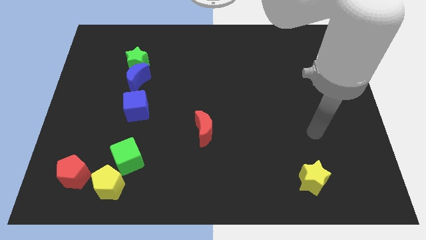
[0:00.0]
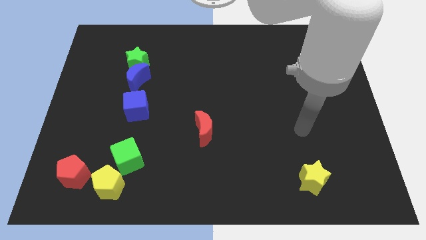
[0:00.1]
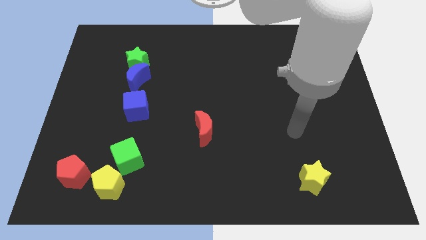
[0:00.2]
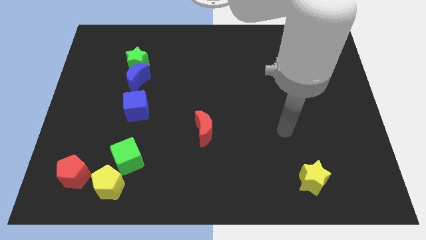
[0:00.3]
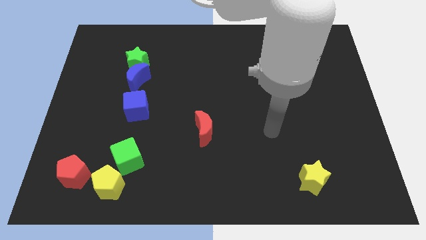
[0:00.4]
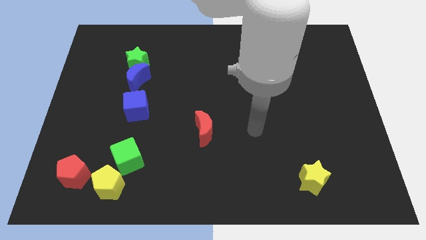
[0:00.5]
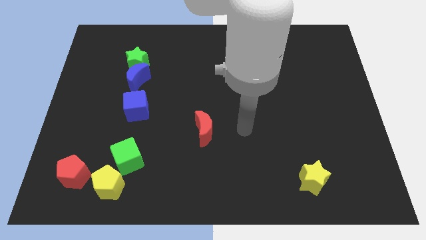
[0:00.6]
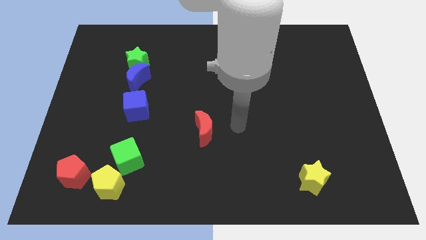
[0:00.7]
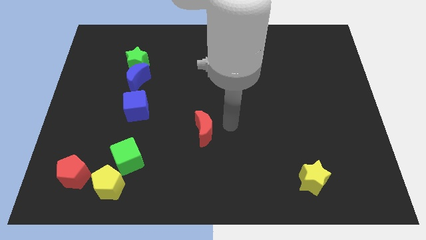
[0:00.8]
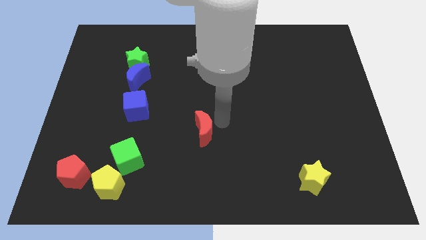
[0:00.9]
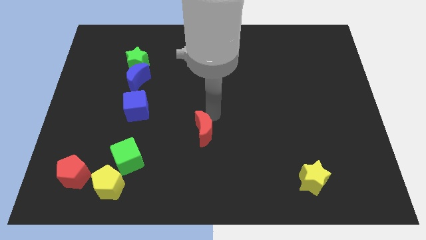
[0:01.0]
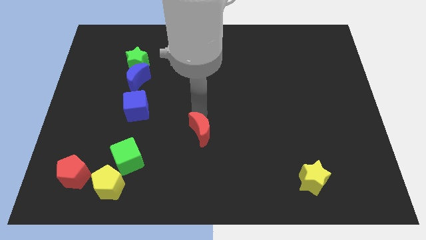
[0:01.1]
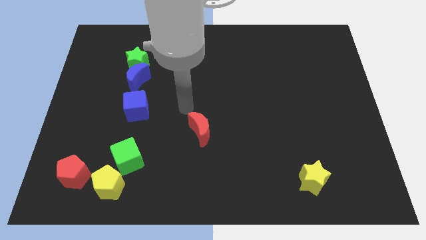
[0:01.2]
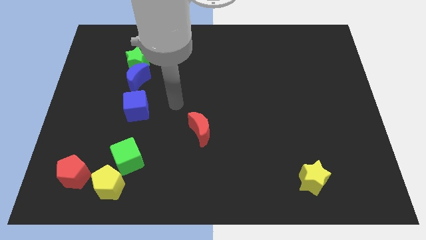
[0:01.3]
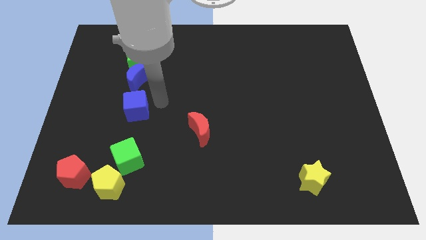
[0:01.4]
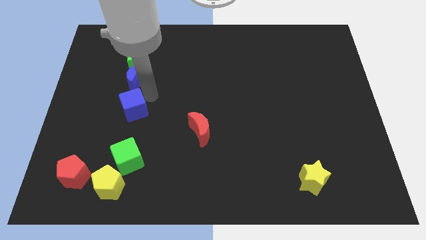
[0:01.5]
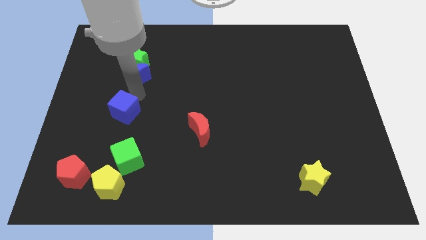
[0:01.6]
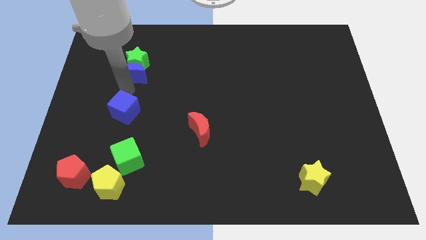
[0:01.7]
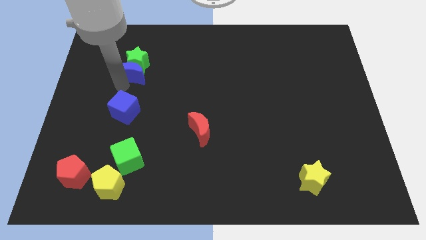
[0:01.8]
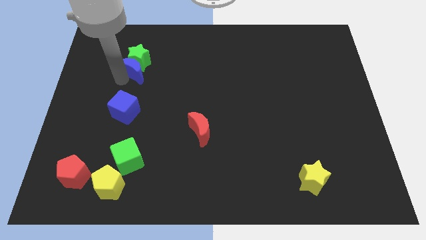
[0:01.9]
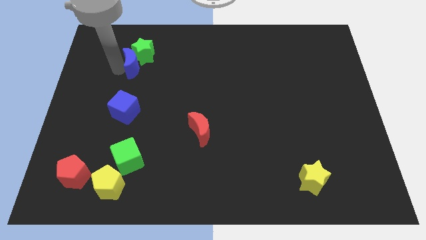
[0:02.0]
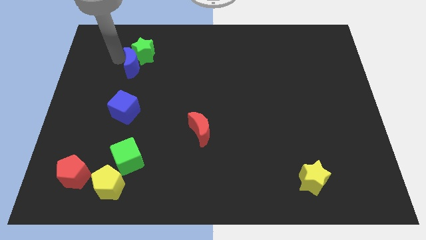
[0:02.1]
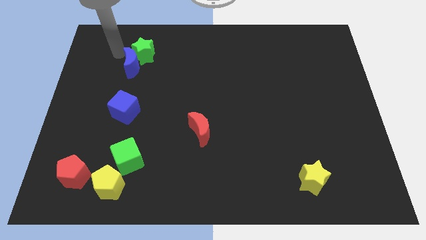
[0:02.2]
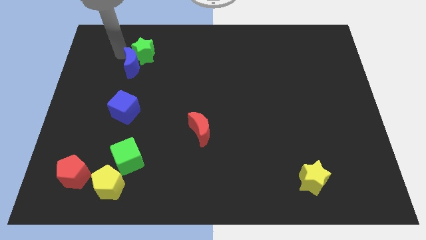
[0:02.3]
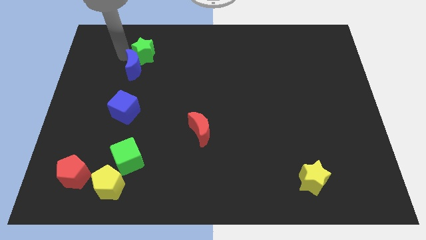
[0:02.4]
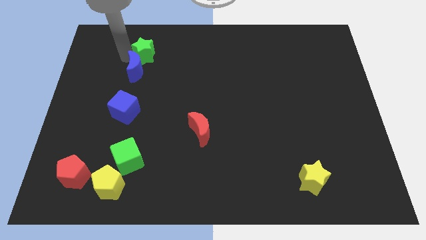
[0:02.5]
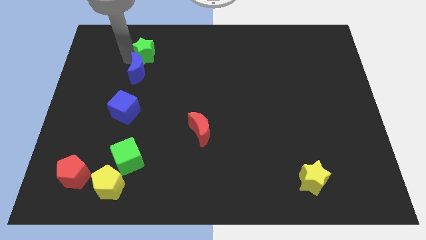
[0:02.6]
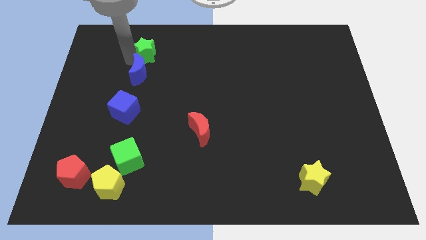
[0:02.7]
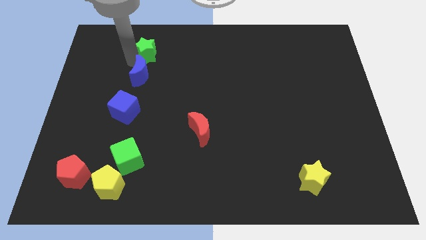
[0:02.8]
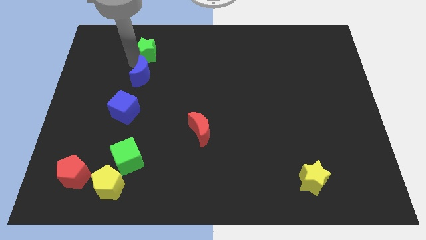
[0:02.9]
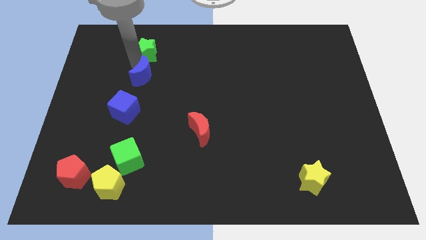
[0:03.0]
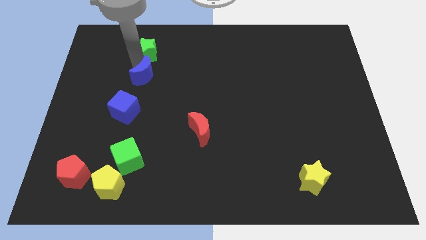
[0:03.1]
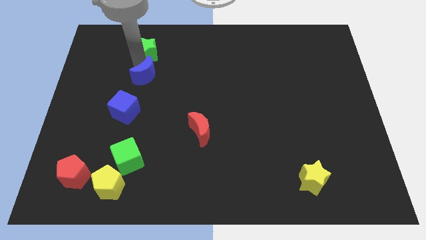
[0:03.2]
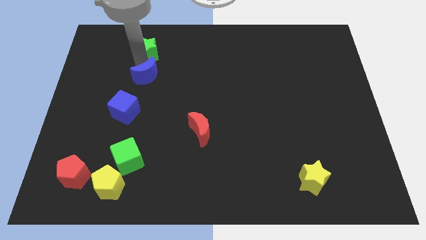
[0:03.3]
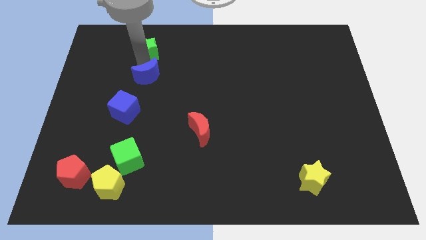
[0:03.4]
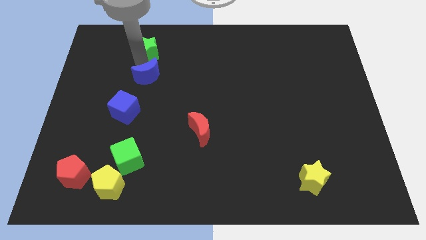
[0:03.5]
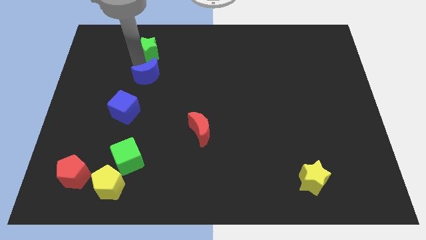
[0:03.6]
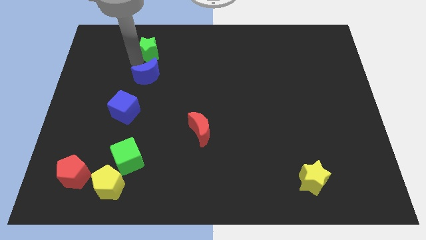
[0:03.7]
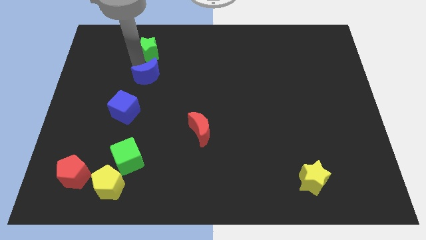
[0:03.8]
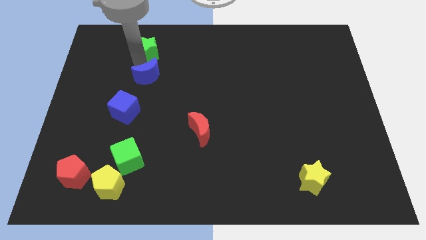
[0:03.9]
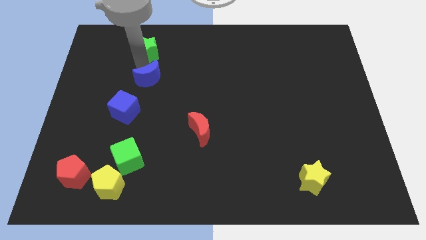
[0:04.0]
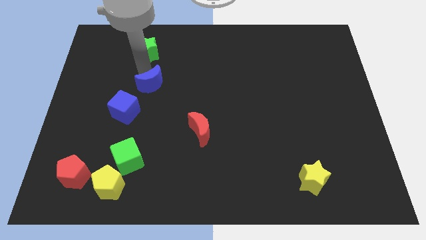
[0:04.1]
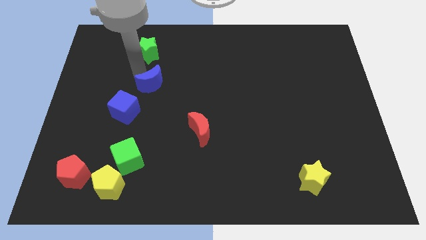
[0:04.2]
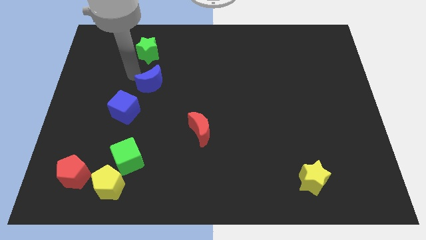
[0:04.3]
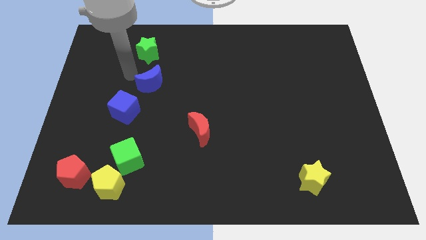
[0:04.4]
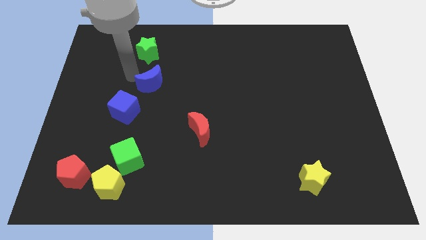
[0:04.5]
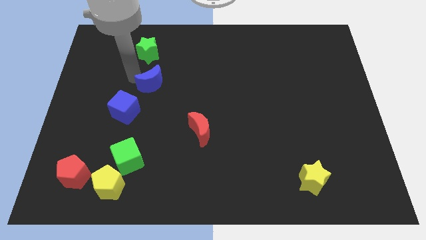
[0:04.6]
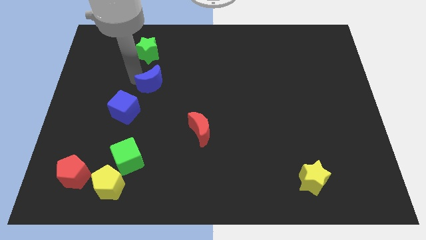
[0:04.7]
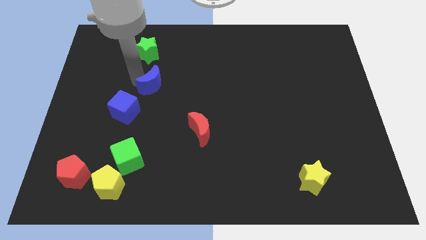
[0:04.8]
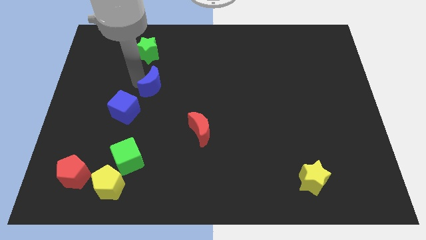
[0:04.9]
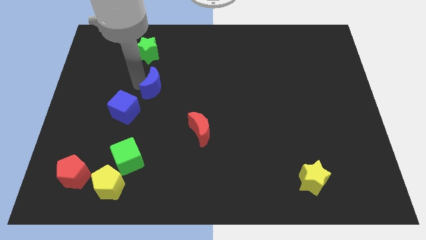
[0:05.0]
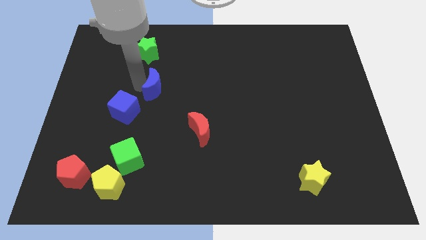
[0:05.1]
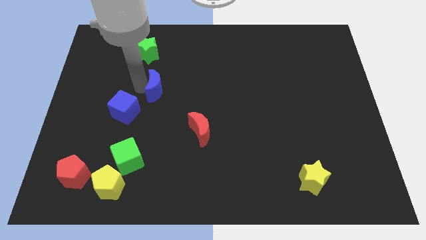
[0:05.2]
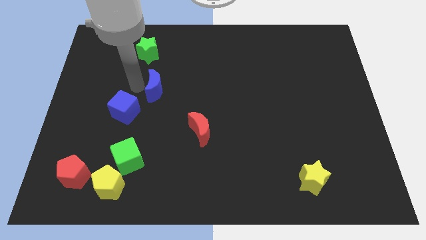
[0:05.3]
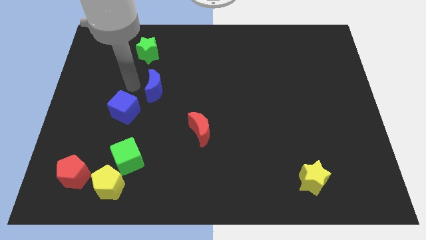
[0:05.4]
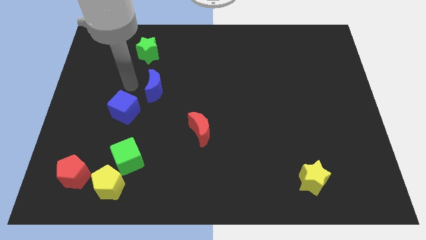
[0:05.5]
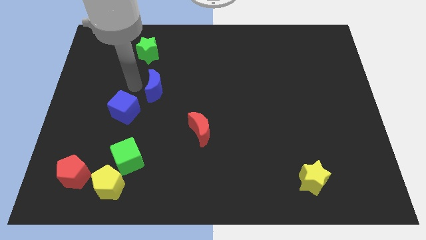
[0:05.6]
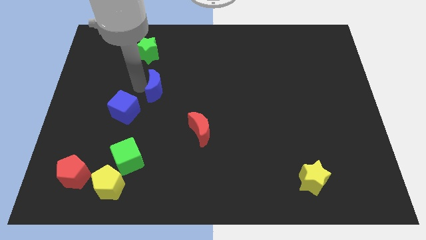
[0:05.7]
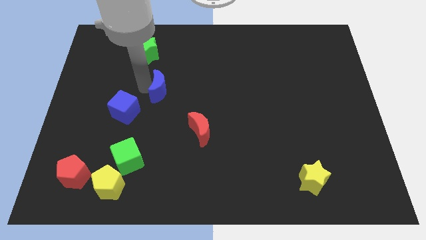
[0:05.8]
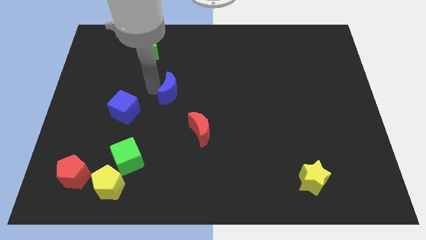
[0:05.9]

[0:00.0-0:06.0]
push the blue moon to the middle
